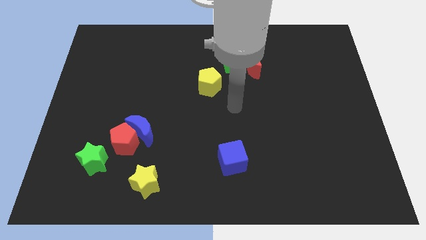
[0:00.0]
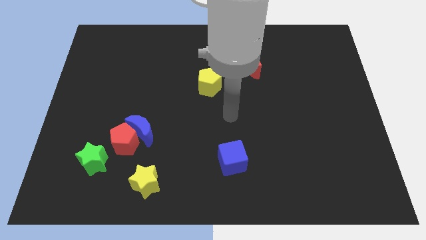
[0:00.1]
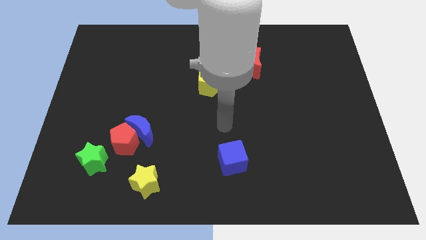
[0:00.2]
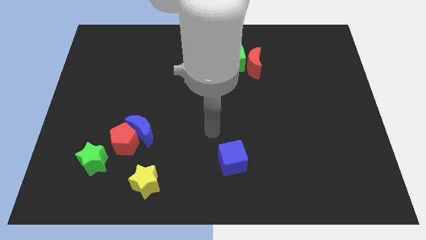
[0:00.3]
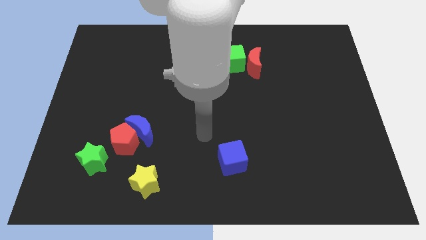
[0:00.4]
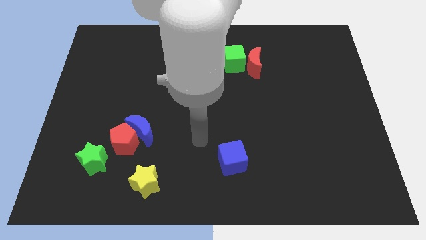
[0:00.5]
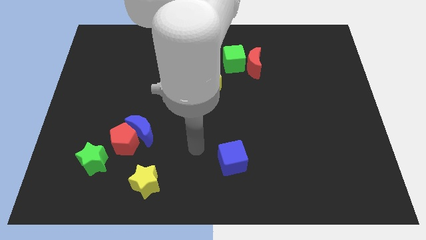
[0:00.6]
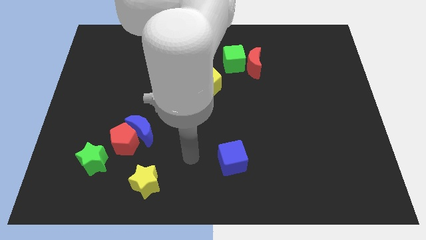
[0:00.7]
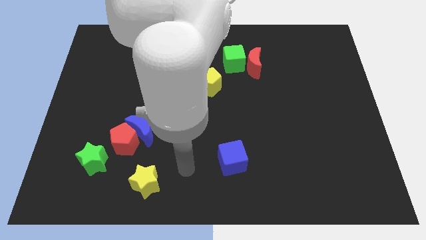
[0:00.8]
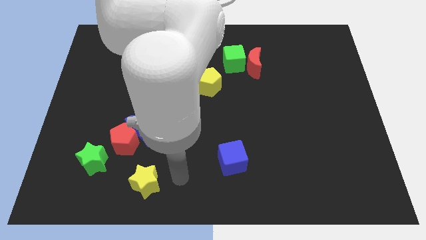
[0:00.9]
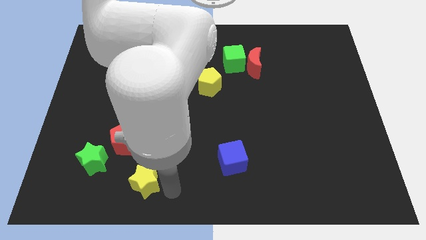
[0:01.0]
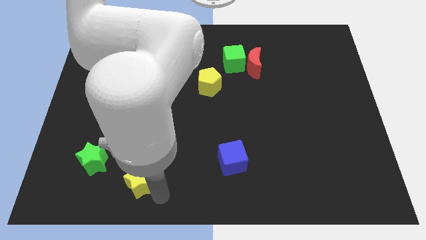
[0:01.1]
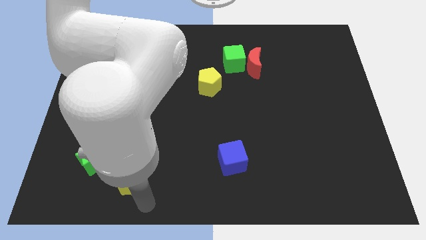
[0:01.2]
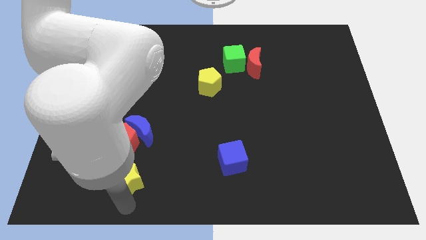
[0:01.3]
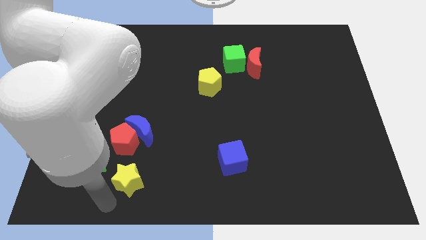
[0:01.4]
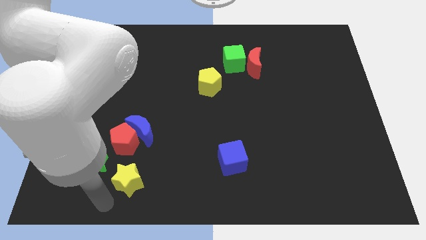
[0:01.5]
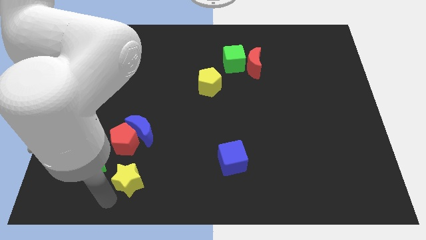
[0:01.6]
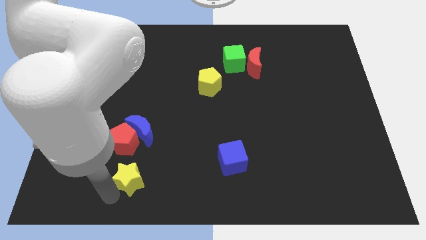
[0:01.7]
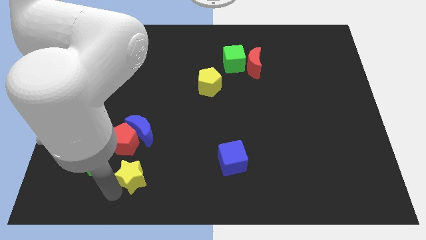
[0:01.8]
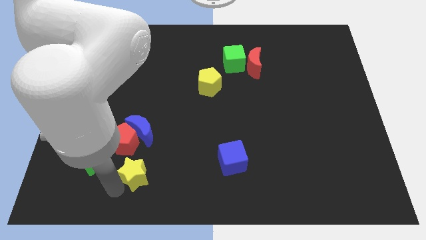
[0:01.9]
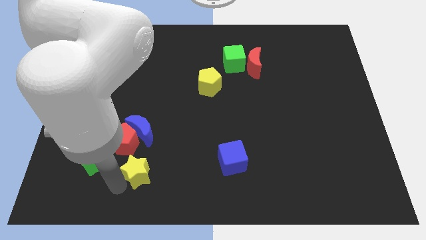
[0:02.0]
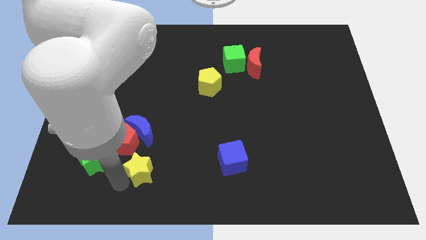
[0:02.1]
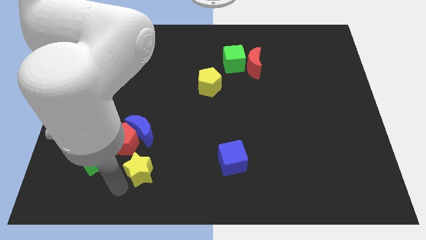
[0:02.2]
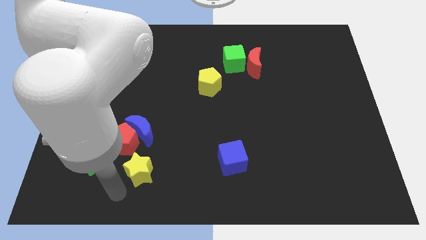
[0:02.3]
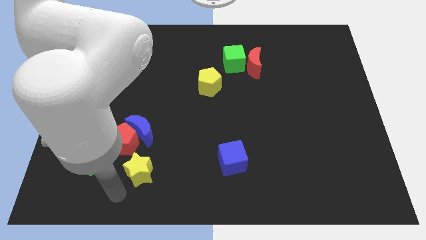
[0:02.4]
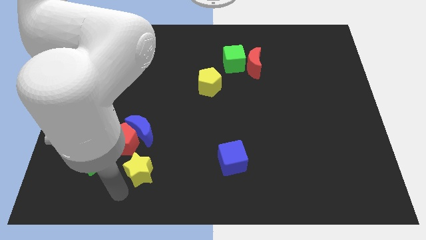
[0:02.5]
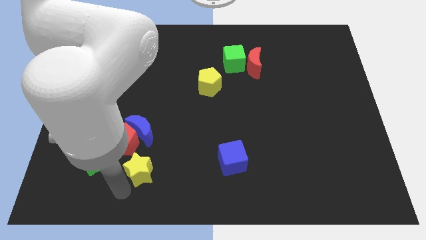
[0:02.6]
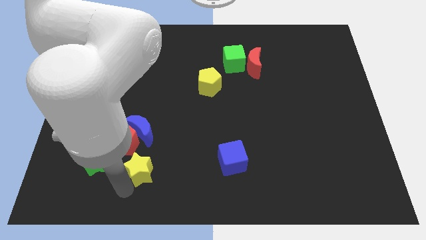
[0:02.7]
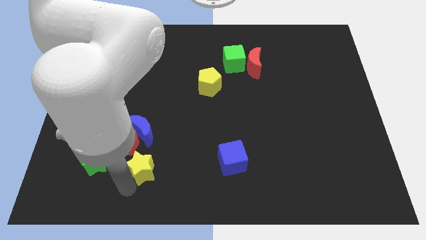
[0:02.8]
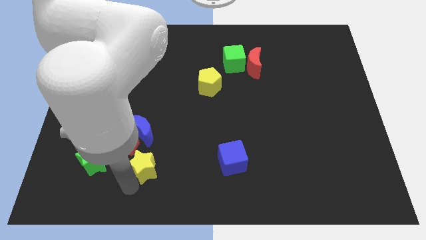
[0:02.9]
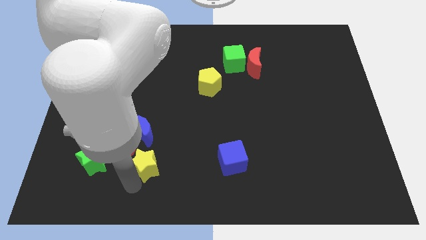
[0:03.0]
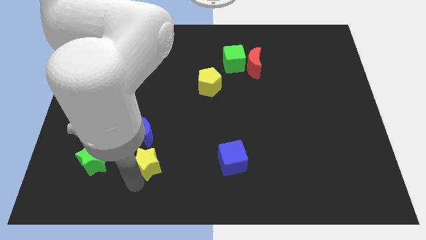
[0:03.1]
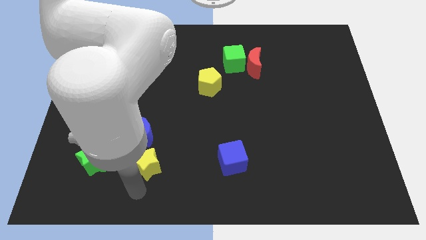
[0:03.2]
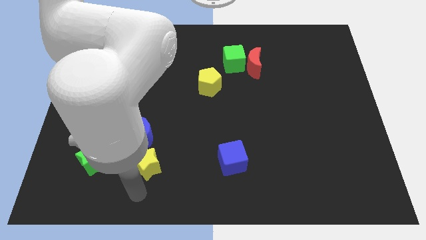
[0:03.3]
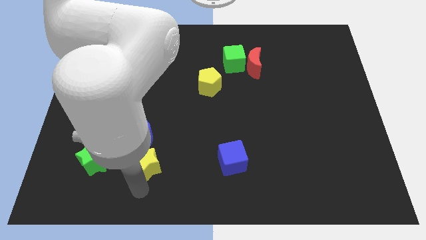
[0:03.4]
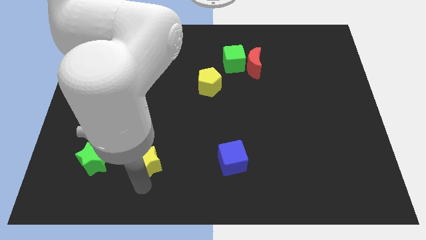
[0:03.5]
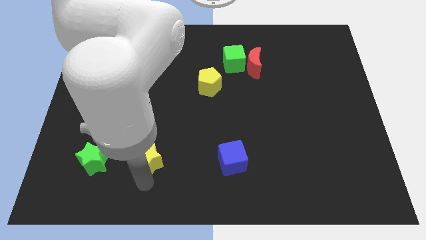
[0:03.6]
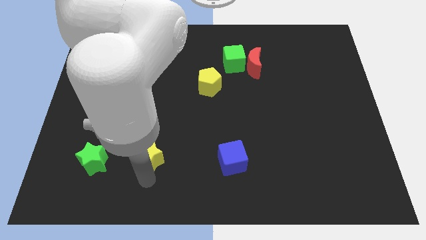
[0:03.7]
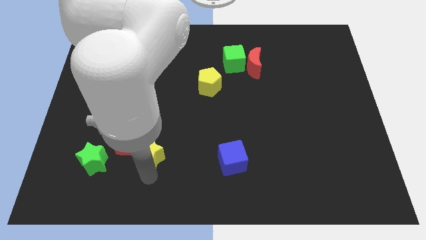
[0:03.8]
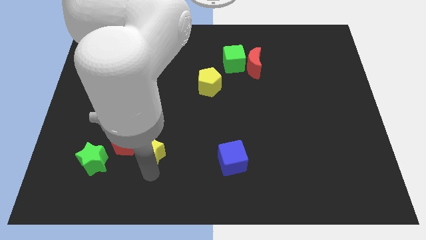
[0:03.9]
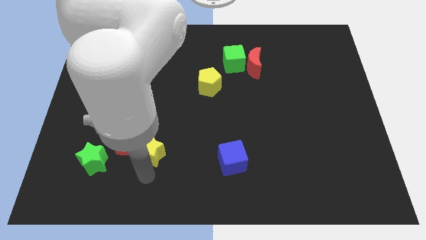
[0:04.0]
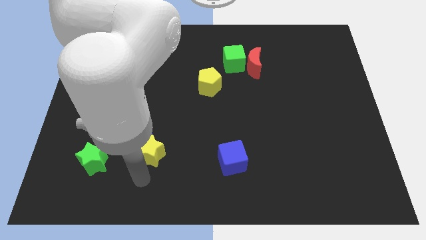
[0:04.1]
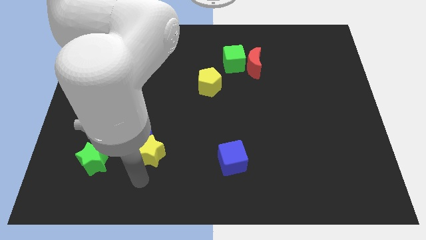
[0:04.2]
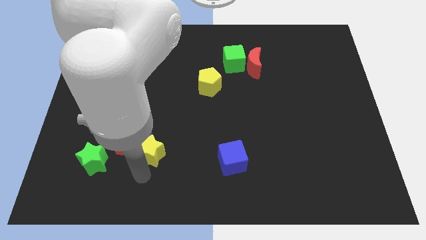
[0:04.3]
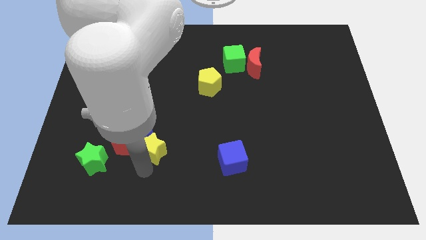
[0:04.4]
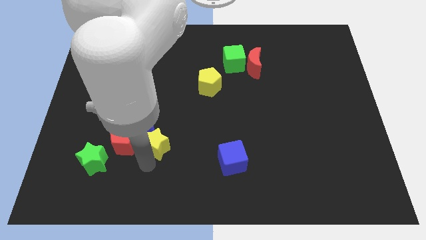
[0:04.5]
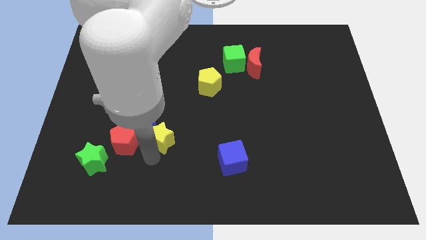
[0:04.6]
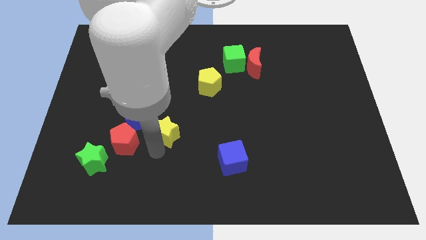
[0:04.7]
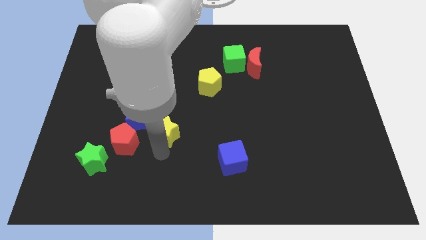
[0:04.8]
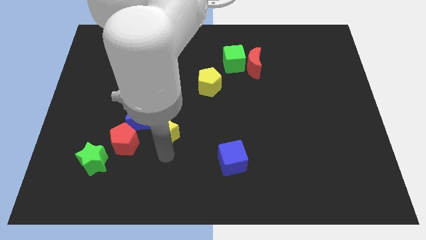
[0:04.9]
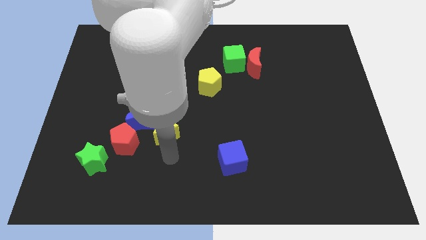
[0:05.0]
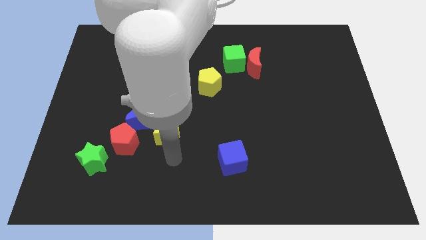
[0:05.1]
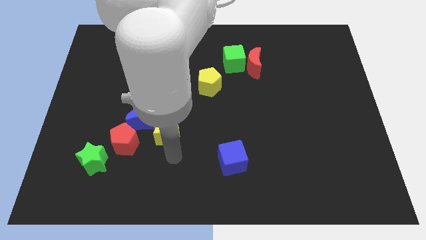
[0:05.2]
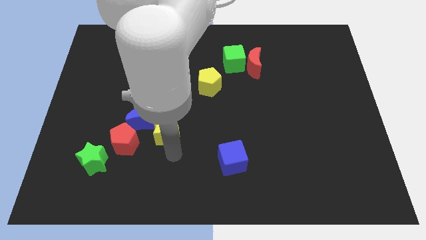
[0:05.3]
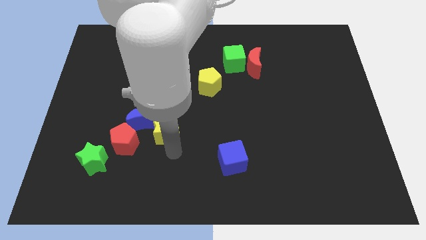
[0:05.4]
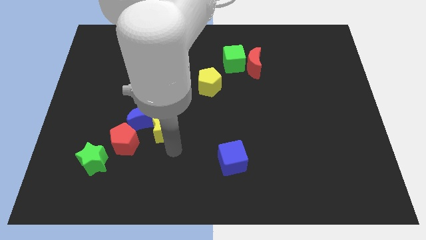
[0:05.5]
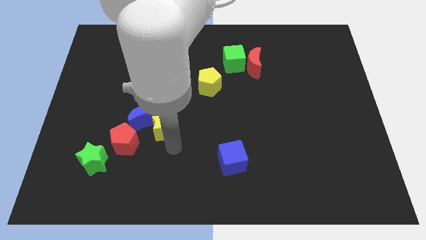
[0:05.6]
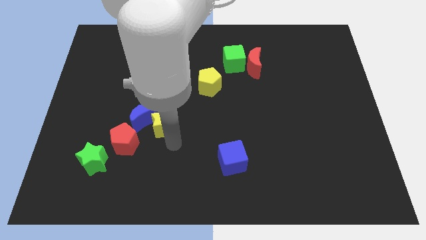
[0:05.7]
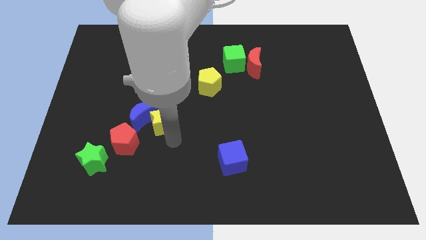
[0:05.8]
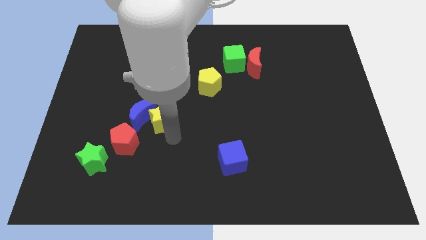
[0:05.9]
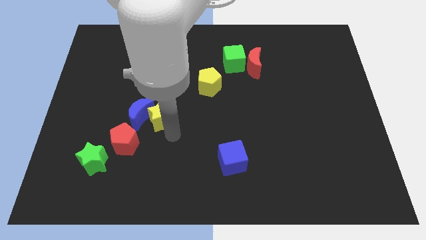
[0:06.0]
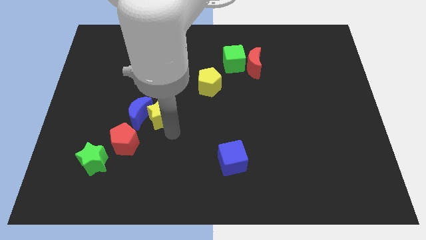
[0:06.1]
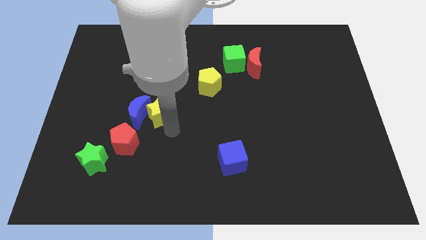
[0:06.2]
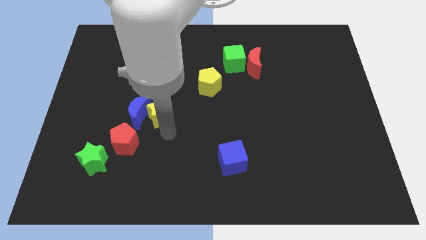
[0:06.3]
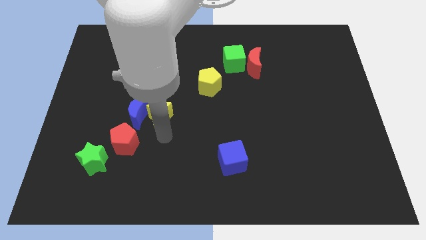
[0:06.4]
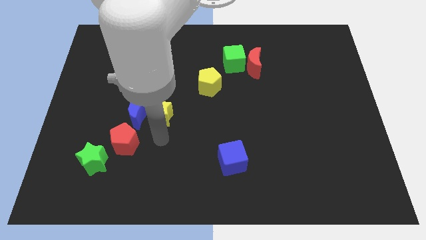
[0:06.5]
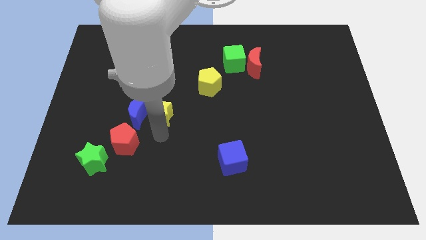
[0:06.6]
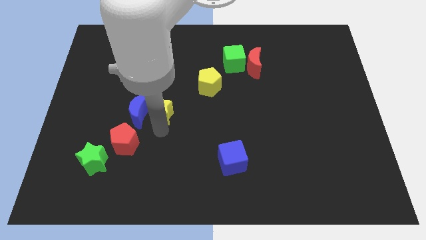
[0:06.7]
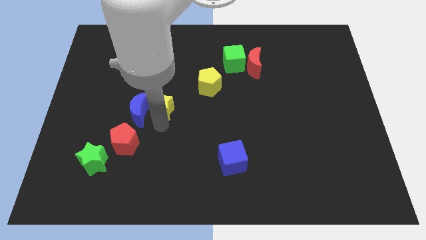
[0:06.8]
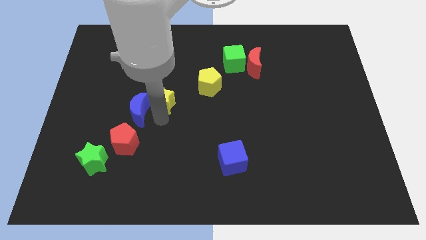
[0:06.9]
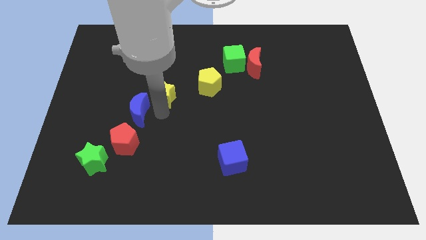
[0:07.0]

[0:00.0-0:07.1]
move the yellow star just left of the yellow pentagon
